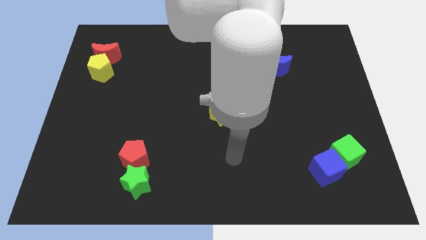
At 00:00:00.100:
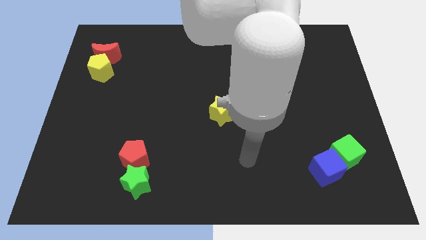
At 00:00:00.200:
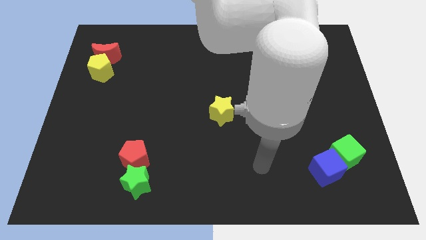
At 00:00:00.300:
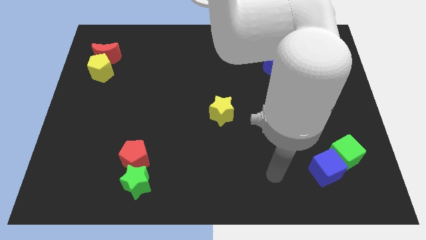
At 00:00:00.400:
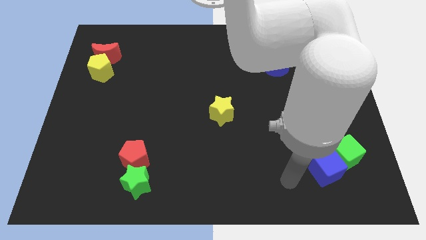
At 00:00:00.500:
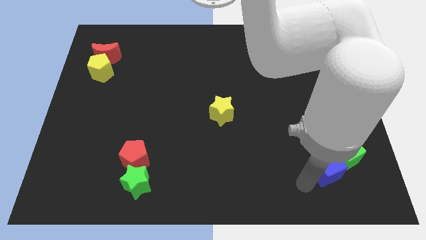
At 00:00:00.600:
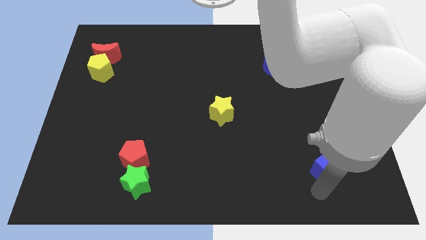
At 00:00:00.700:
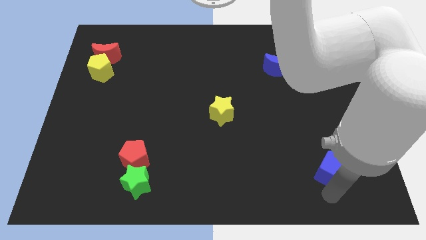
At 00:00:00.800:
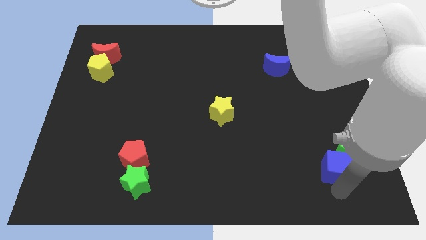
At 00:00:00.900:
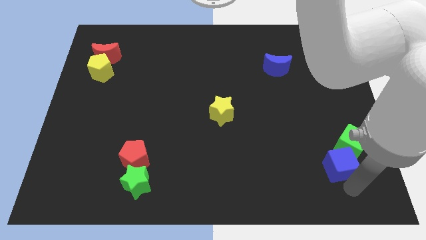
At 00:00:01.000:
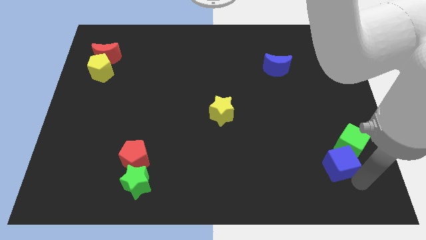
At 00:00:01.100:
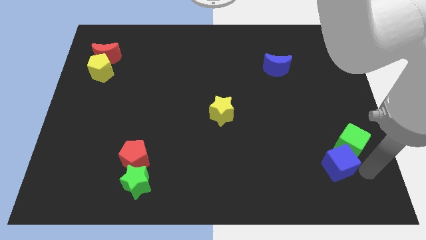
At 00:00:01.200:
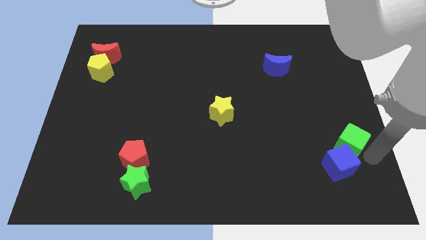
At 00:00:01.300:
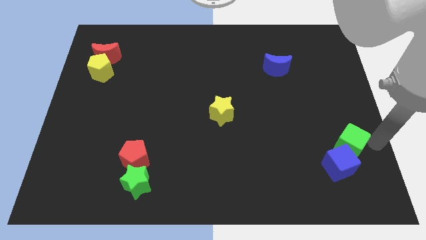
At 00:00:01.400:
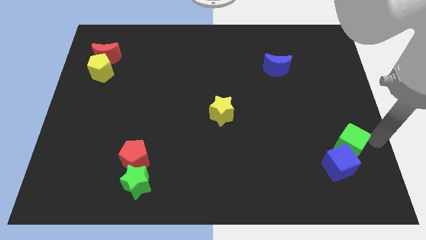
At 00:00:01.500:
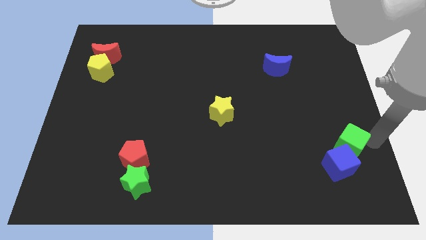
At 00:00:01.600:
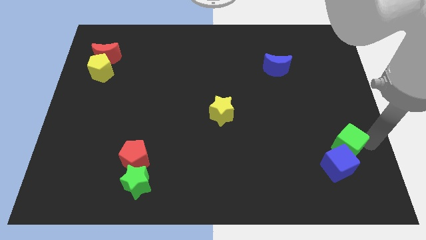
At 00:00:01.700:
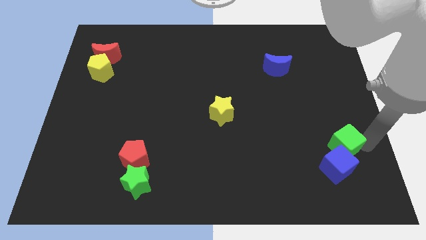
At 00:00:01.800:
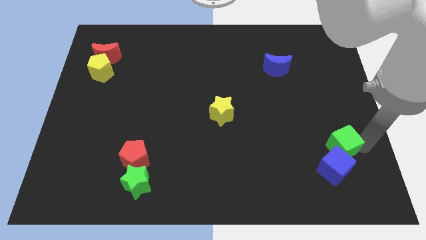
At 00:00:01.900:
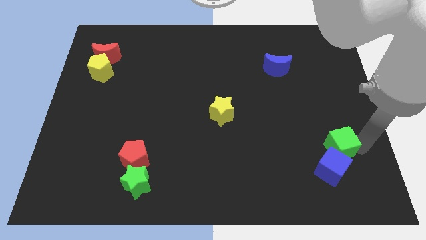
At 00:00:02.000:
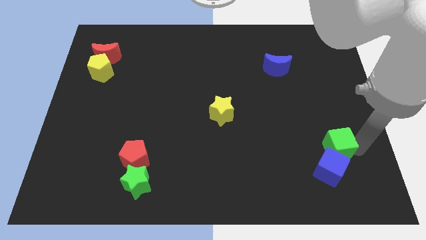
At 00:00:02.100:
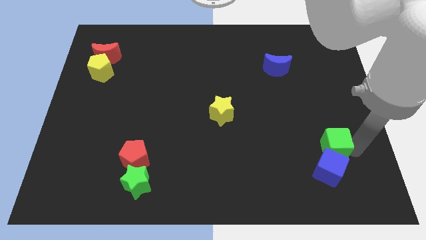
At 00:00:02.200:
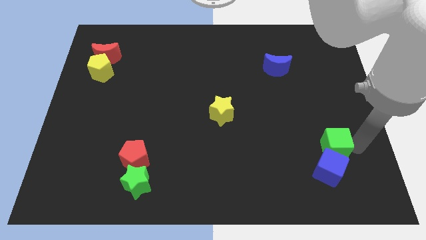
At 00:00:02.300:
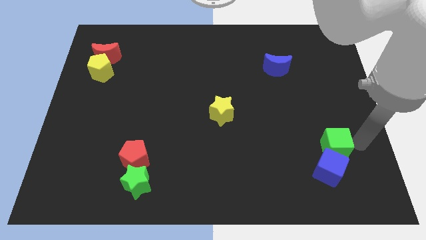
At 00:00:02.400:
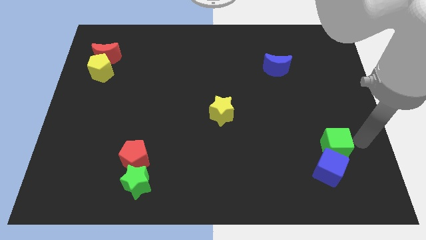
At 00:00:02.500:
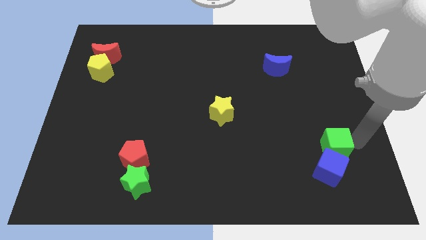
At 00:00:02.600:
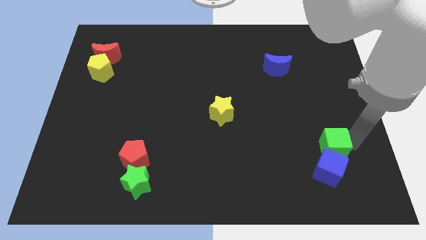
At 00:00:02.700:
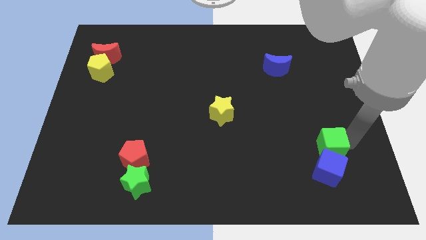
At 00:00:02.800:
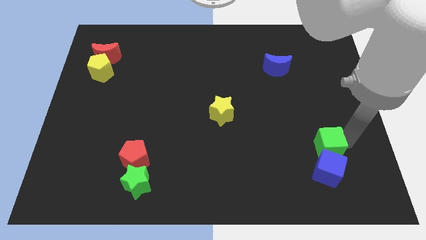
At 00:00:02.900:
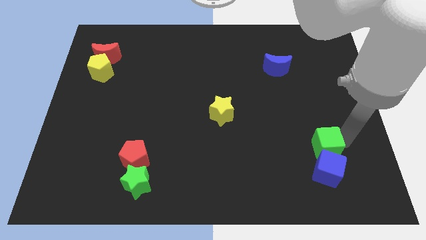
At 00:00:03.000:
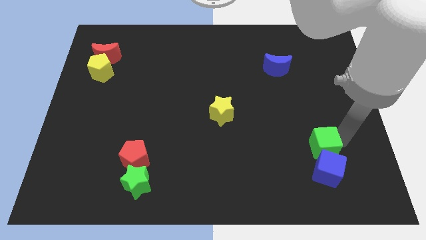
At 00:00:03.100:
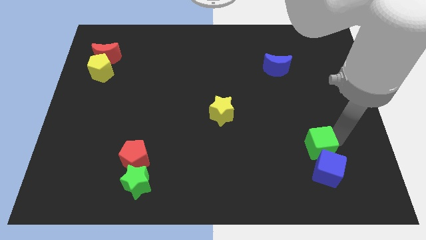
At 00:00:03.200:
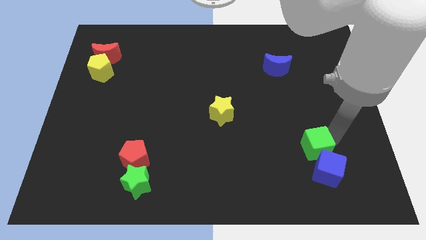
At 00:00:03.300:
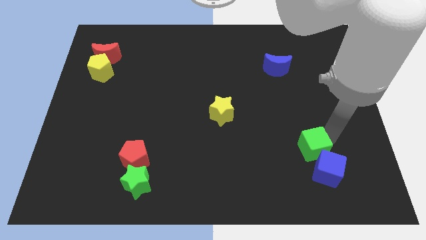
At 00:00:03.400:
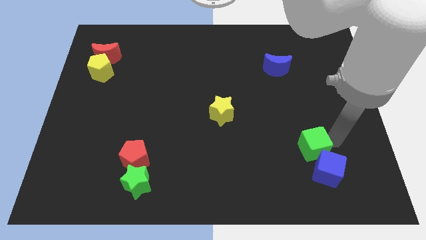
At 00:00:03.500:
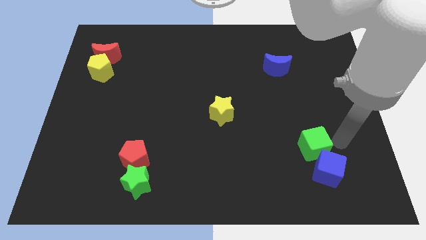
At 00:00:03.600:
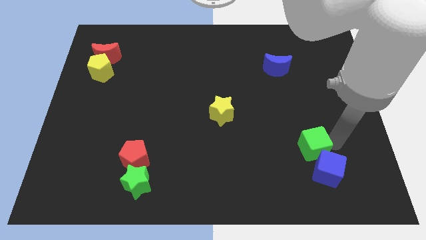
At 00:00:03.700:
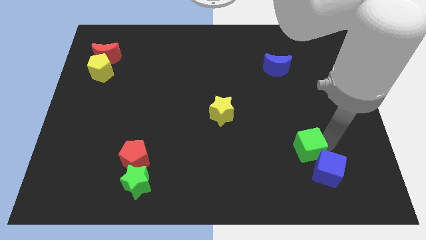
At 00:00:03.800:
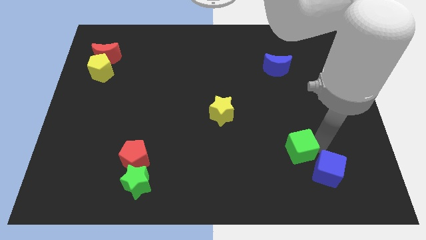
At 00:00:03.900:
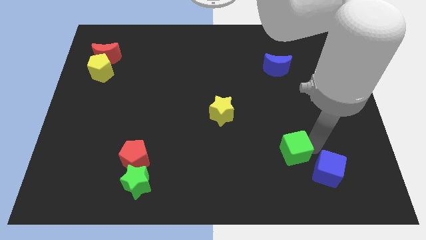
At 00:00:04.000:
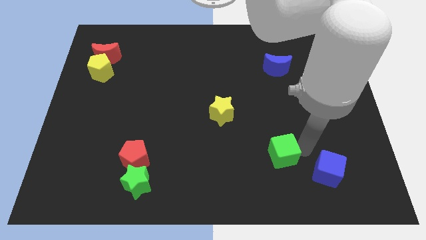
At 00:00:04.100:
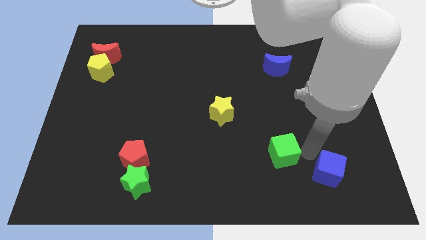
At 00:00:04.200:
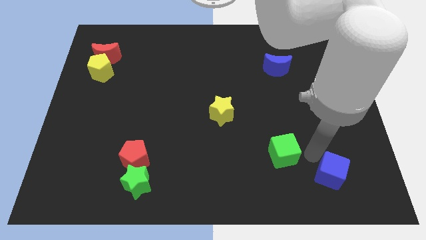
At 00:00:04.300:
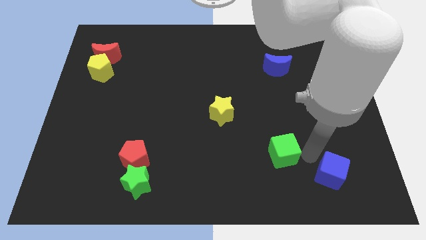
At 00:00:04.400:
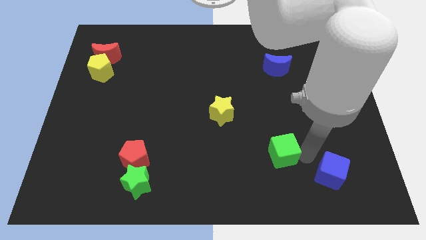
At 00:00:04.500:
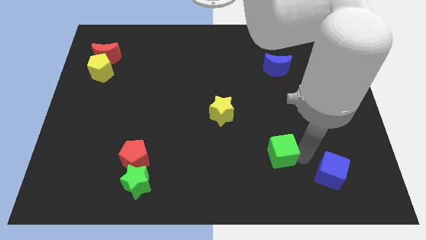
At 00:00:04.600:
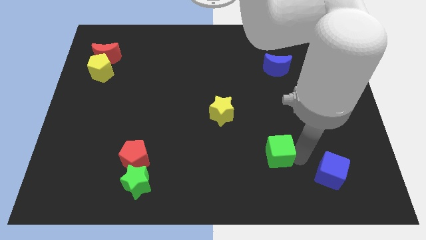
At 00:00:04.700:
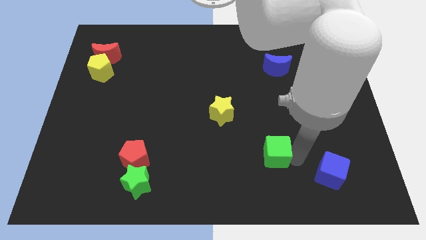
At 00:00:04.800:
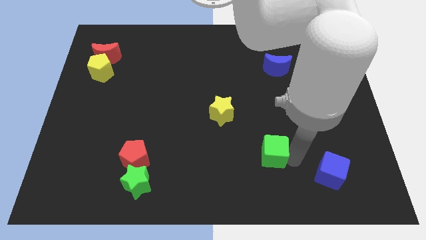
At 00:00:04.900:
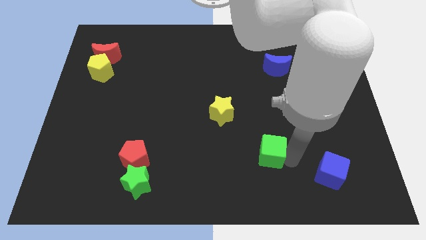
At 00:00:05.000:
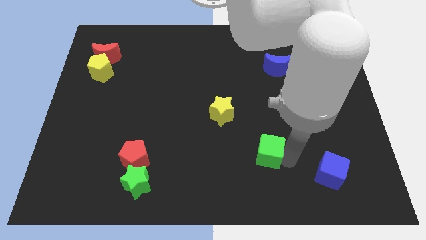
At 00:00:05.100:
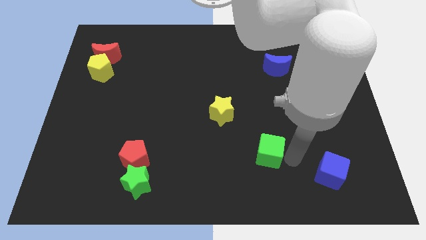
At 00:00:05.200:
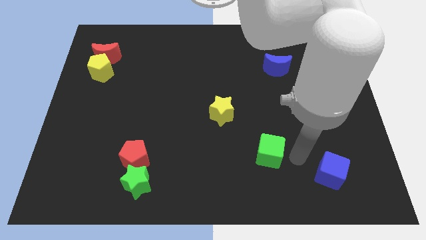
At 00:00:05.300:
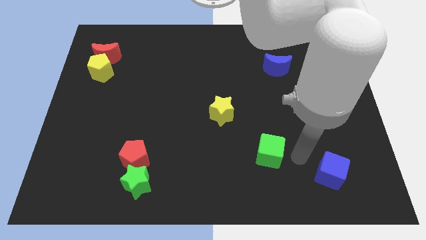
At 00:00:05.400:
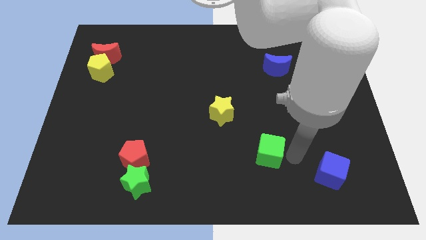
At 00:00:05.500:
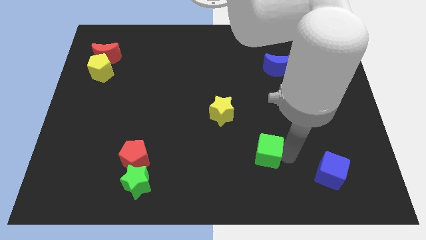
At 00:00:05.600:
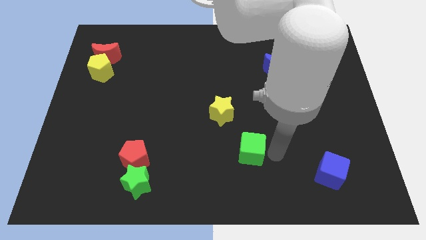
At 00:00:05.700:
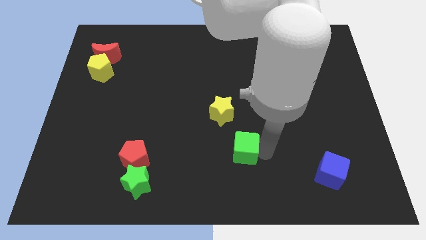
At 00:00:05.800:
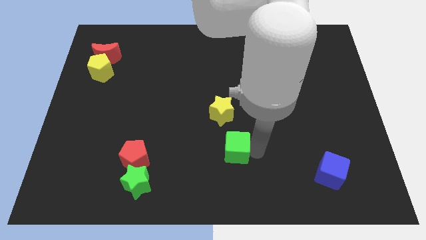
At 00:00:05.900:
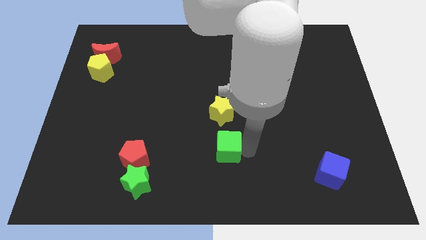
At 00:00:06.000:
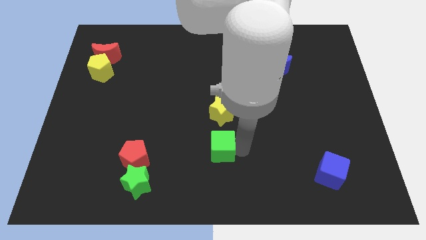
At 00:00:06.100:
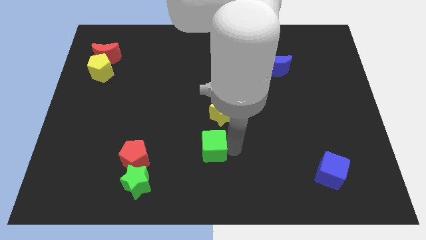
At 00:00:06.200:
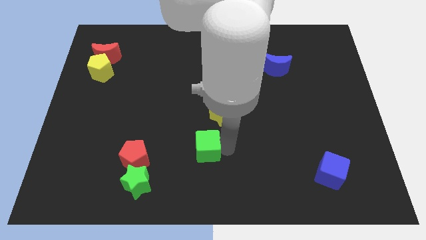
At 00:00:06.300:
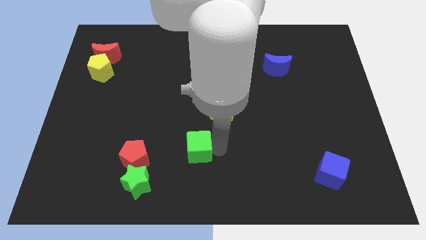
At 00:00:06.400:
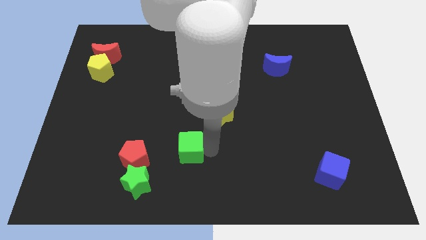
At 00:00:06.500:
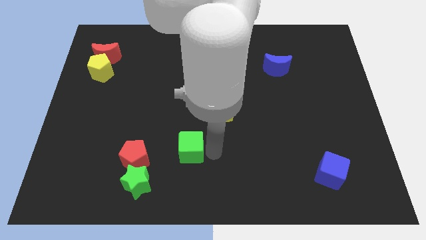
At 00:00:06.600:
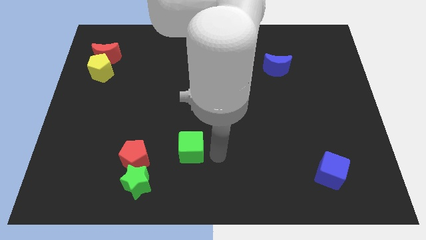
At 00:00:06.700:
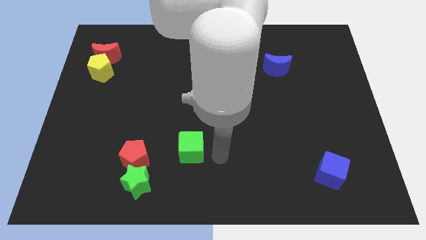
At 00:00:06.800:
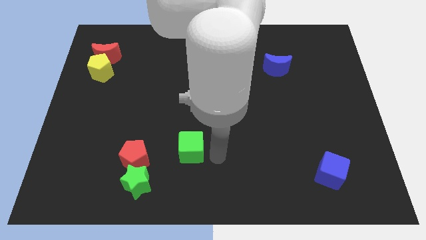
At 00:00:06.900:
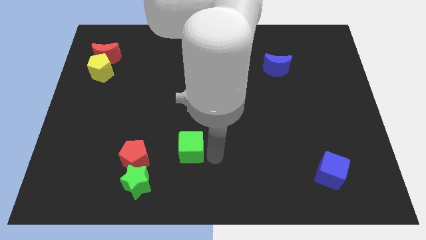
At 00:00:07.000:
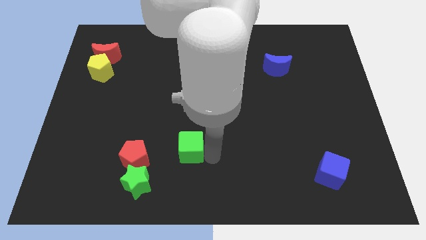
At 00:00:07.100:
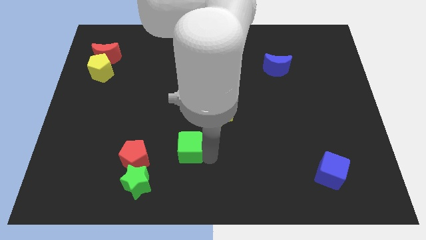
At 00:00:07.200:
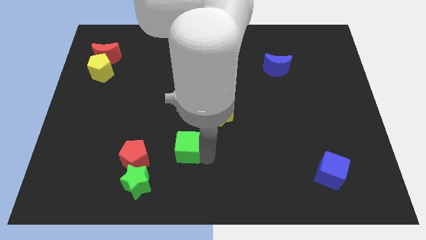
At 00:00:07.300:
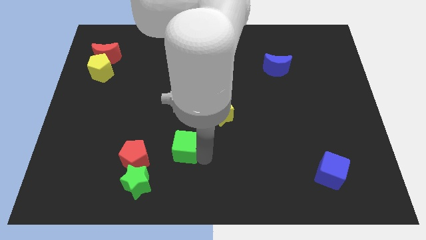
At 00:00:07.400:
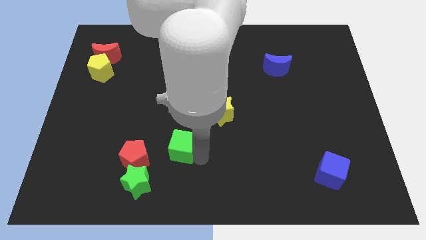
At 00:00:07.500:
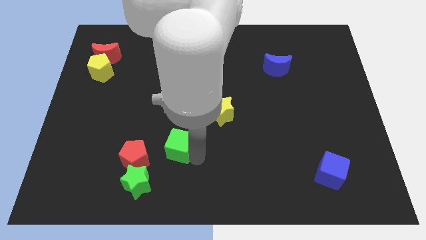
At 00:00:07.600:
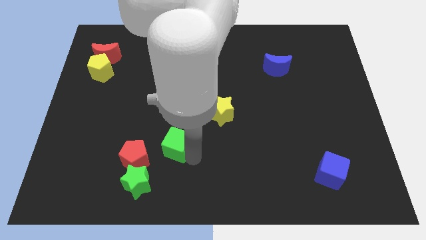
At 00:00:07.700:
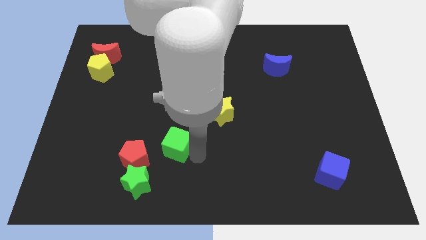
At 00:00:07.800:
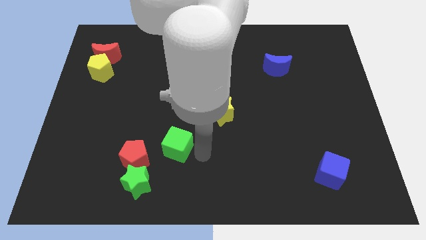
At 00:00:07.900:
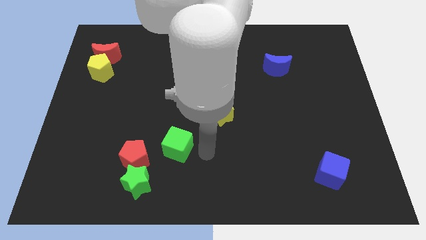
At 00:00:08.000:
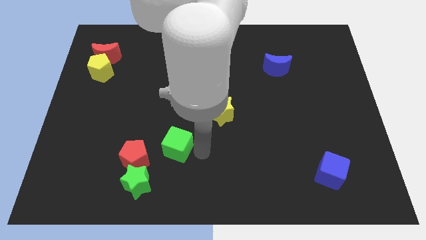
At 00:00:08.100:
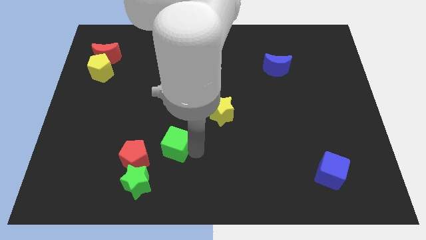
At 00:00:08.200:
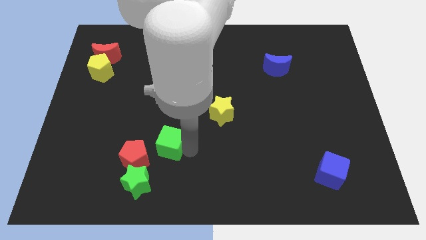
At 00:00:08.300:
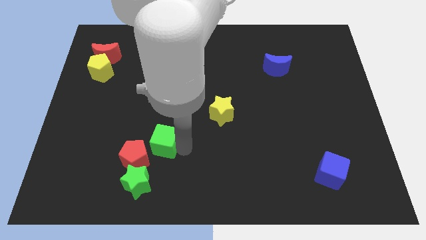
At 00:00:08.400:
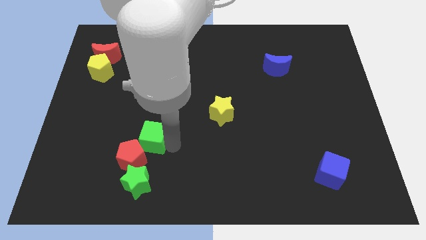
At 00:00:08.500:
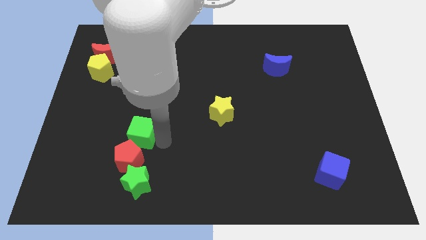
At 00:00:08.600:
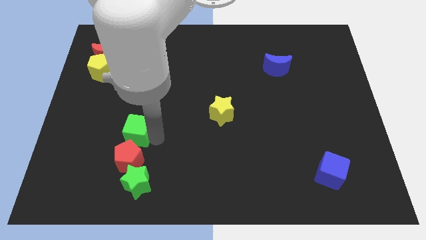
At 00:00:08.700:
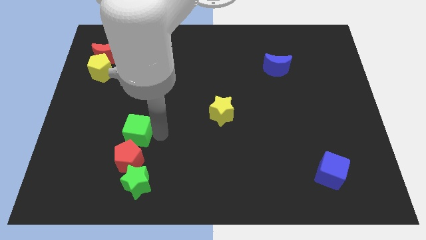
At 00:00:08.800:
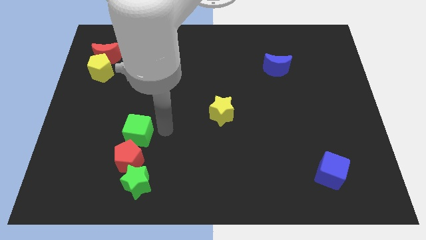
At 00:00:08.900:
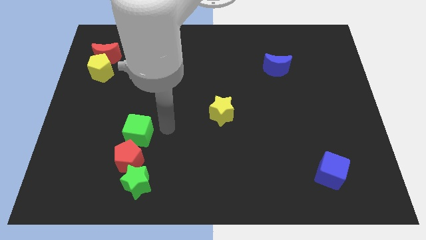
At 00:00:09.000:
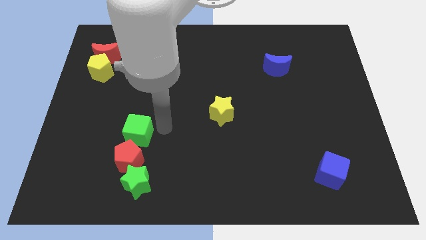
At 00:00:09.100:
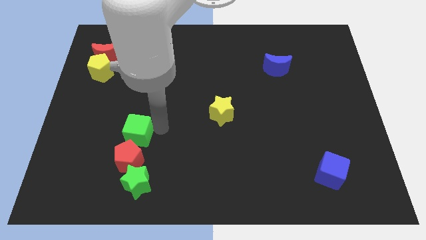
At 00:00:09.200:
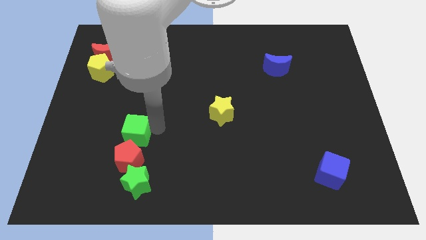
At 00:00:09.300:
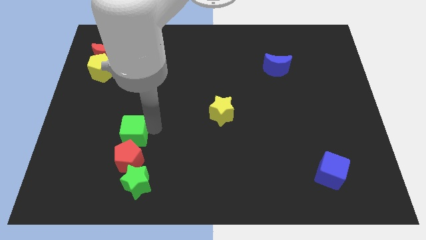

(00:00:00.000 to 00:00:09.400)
push the green cube to the top left of the red pentagon
